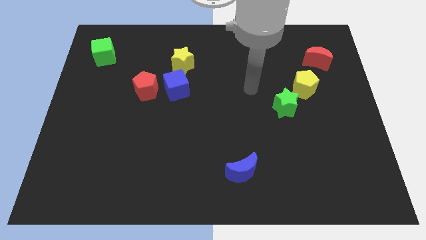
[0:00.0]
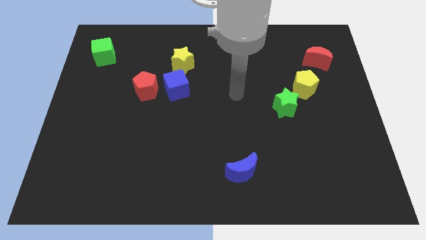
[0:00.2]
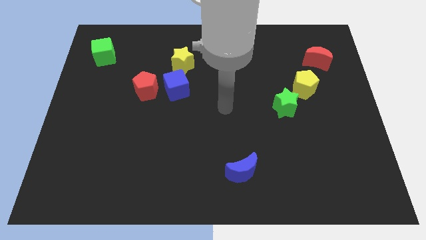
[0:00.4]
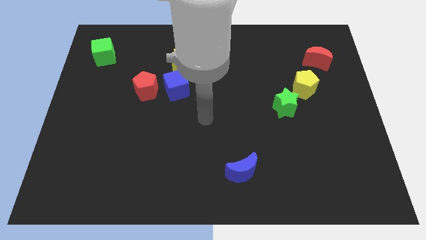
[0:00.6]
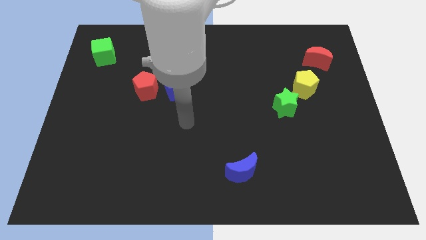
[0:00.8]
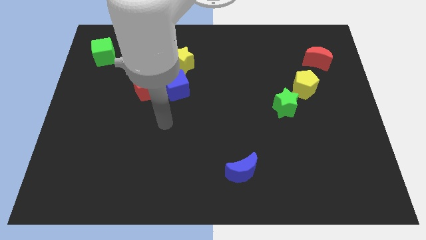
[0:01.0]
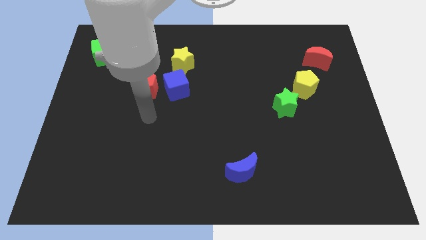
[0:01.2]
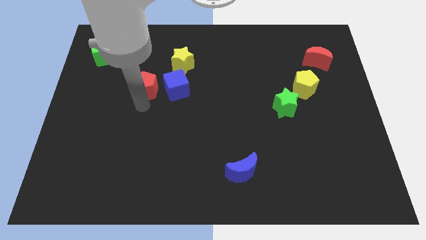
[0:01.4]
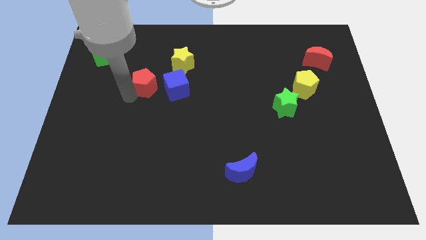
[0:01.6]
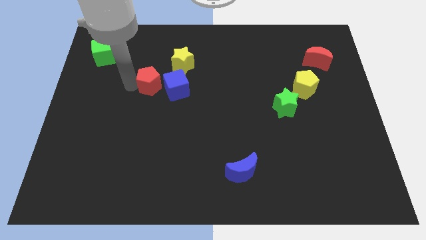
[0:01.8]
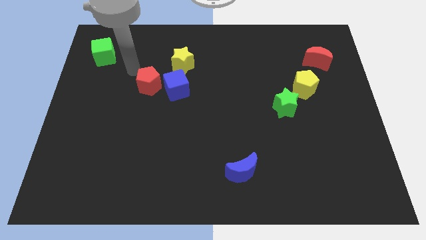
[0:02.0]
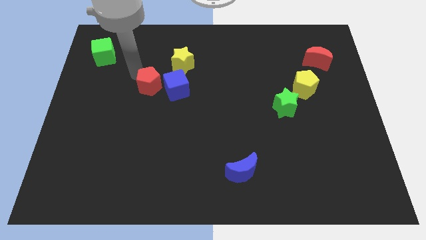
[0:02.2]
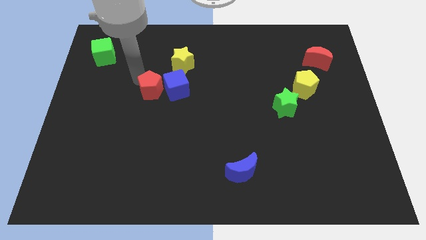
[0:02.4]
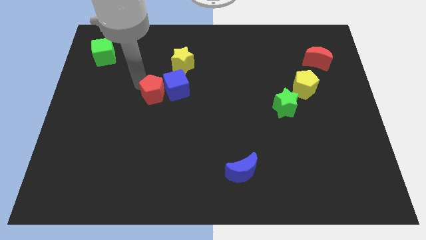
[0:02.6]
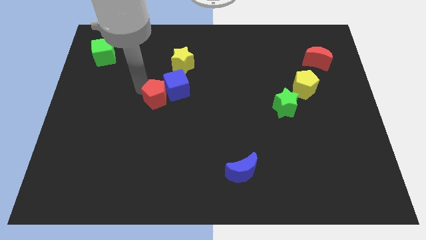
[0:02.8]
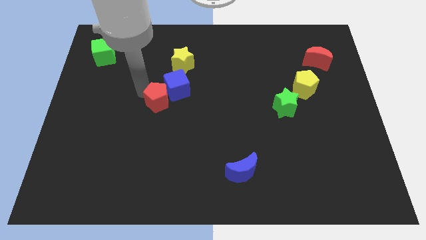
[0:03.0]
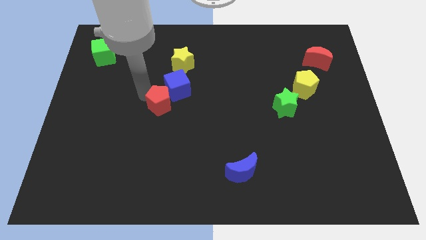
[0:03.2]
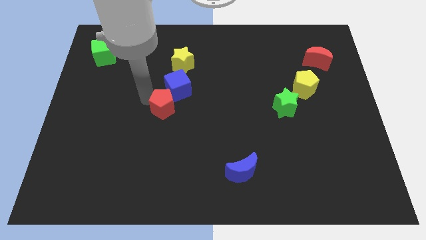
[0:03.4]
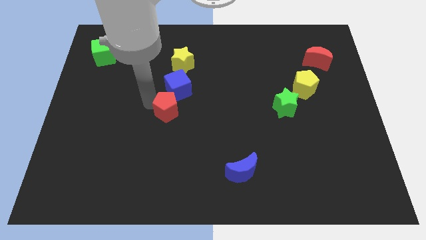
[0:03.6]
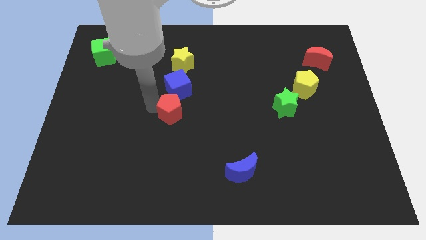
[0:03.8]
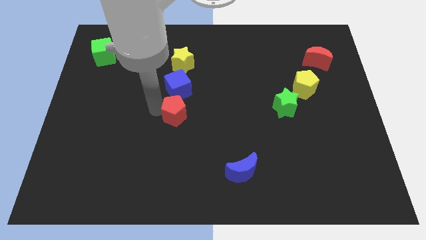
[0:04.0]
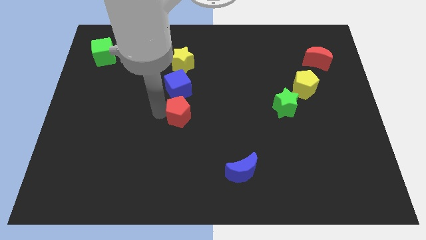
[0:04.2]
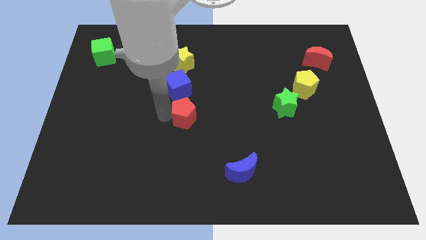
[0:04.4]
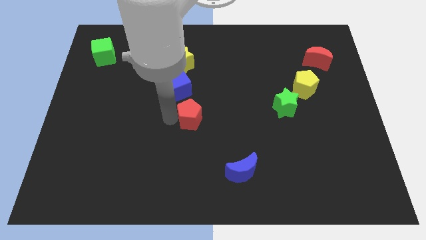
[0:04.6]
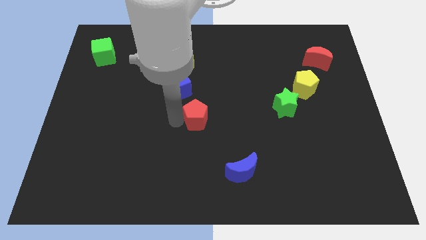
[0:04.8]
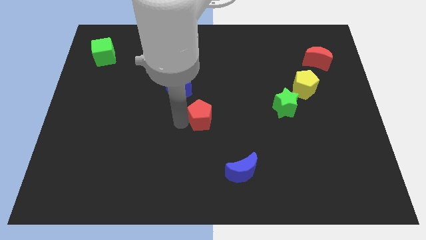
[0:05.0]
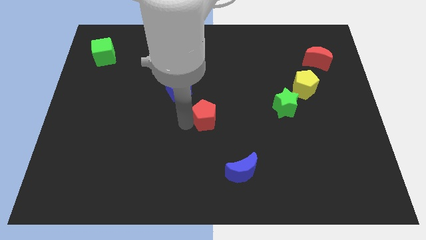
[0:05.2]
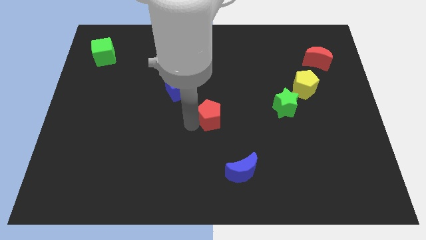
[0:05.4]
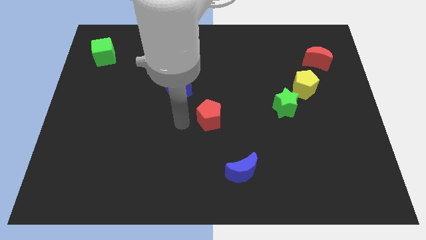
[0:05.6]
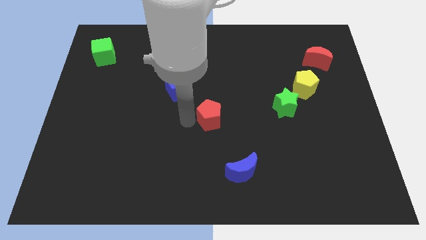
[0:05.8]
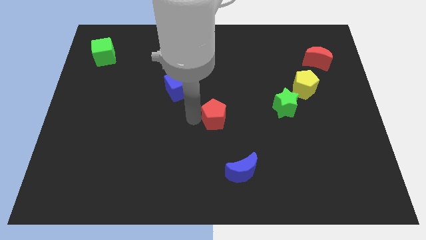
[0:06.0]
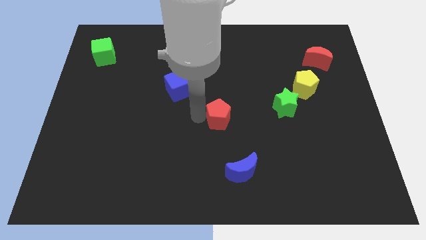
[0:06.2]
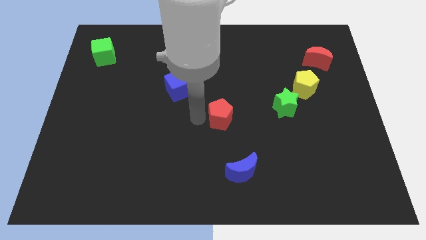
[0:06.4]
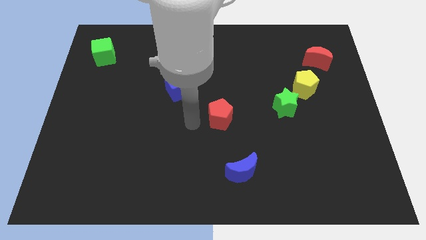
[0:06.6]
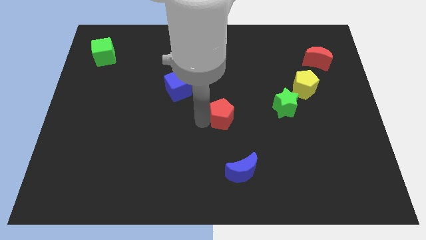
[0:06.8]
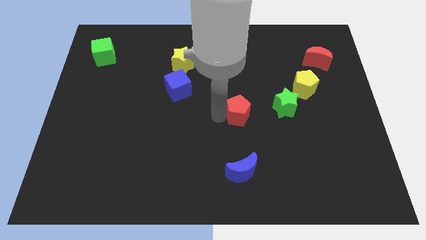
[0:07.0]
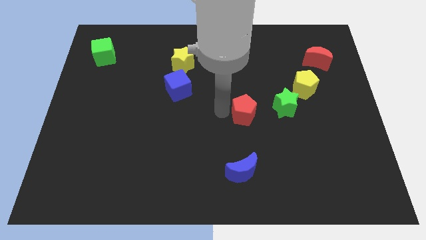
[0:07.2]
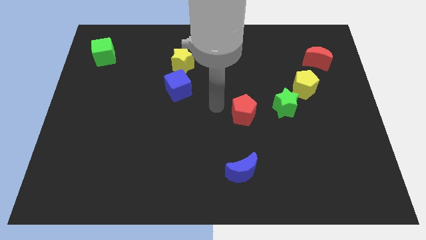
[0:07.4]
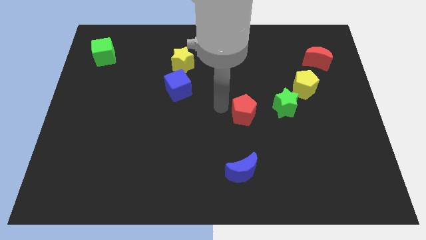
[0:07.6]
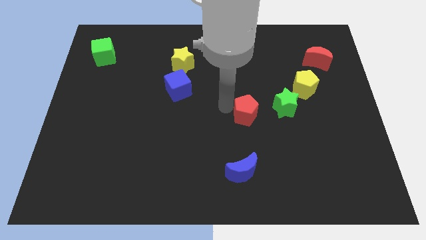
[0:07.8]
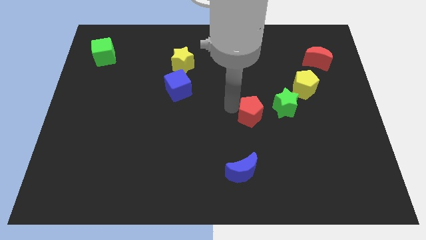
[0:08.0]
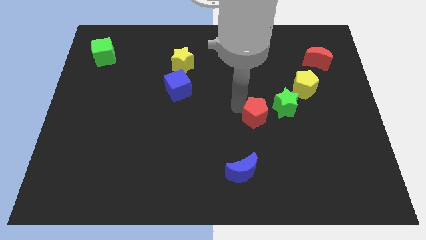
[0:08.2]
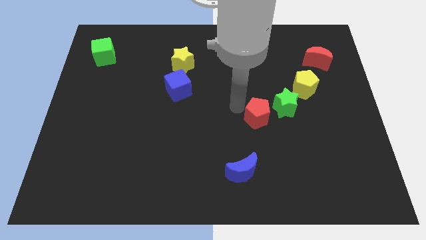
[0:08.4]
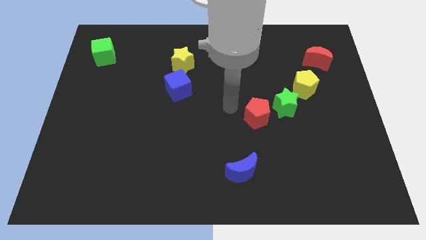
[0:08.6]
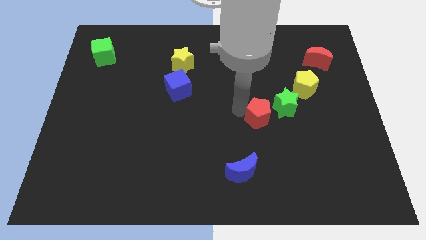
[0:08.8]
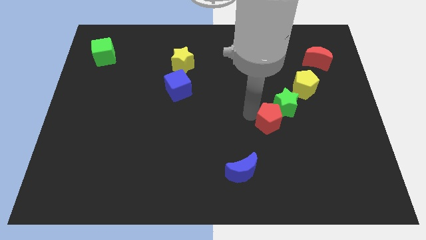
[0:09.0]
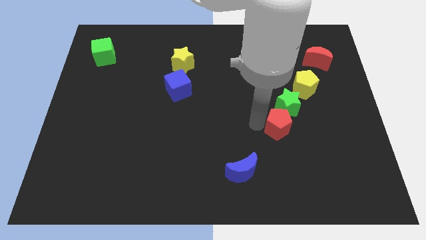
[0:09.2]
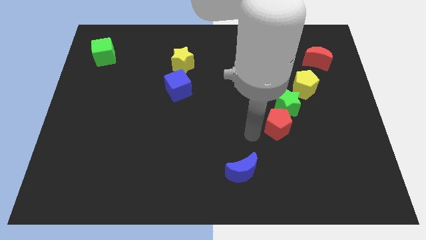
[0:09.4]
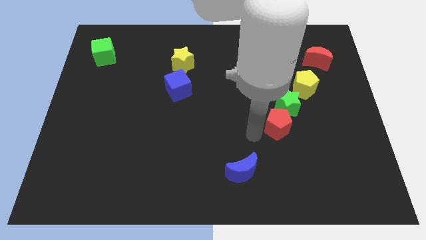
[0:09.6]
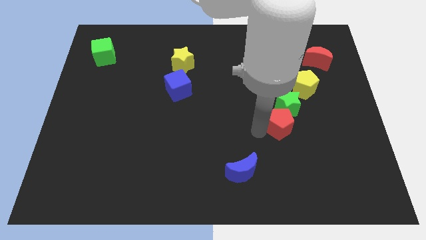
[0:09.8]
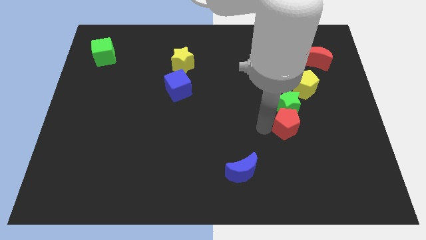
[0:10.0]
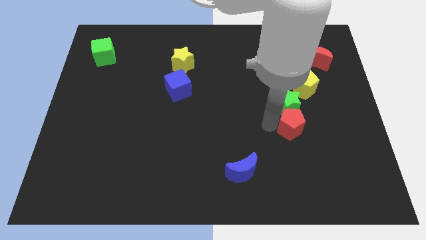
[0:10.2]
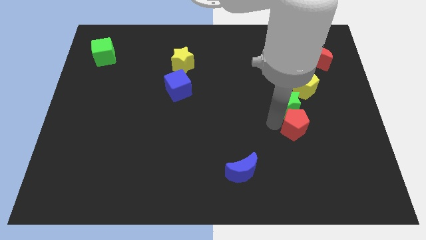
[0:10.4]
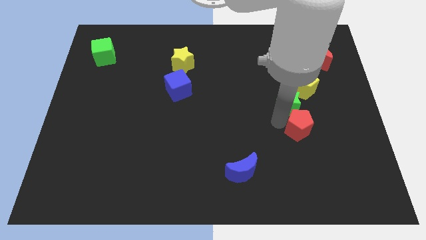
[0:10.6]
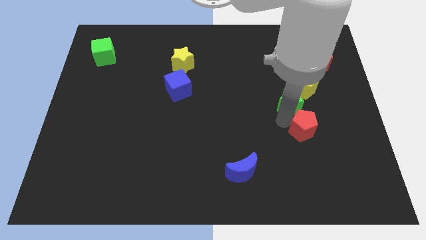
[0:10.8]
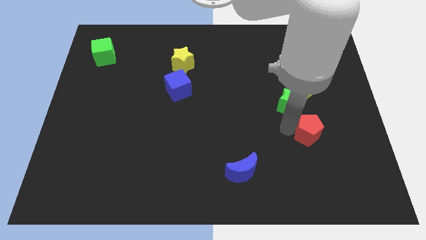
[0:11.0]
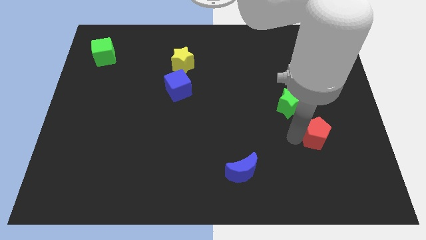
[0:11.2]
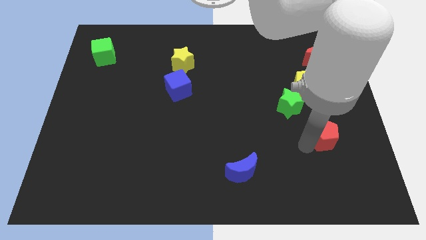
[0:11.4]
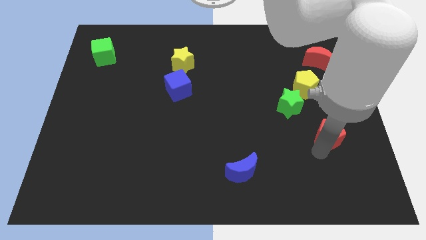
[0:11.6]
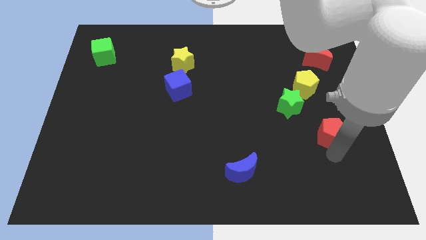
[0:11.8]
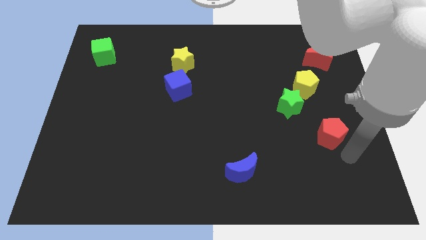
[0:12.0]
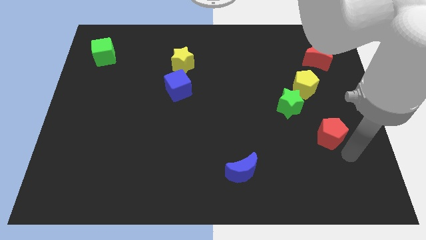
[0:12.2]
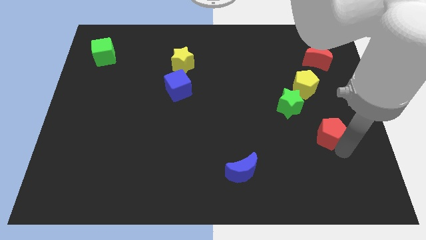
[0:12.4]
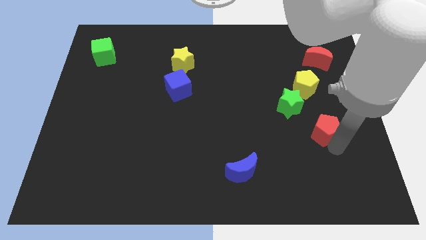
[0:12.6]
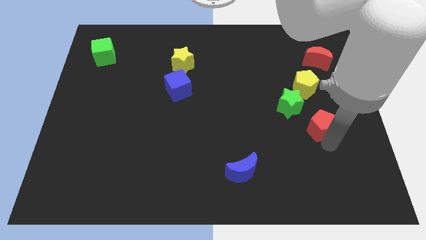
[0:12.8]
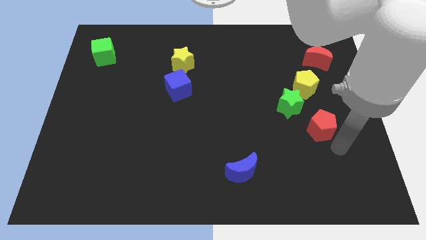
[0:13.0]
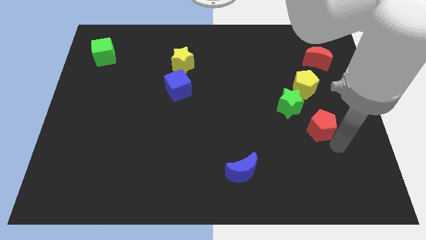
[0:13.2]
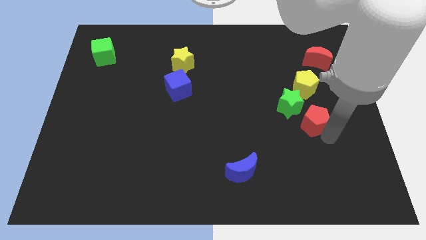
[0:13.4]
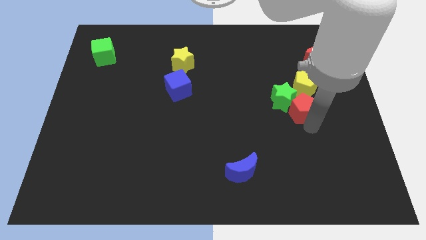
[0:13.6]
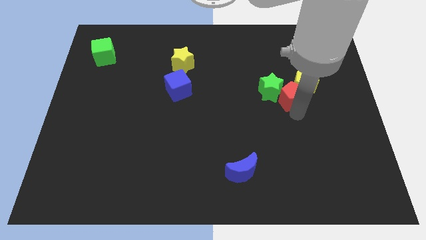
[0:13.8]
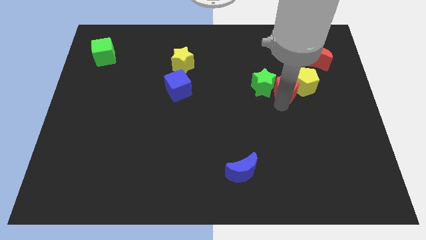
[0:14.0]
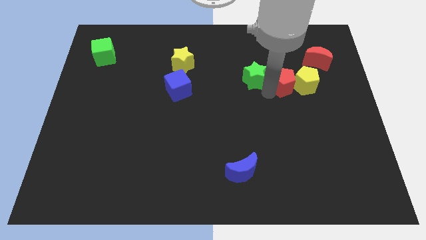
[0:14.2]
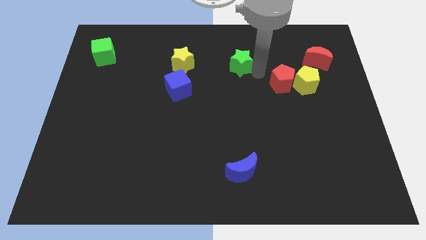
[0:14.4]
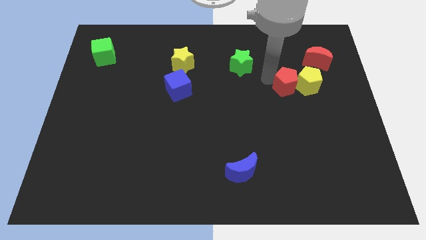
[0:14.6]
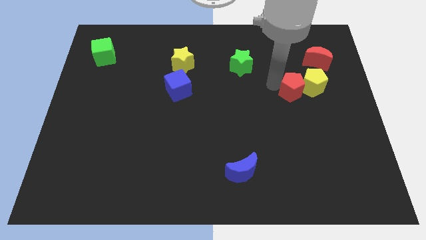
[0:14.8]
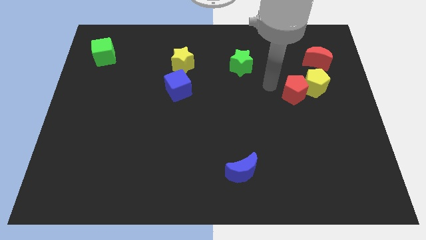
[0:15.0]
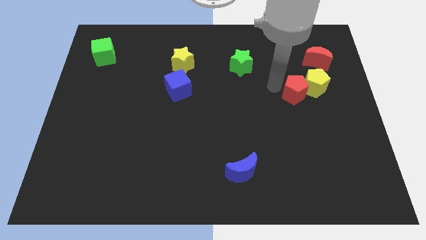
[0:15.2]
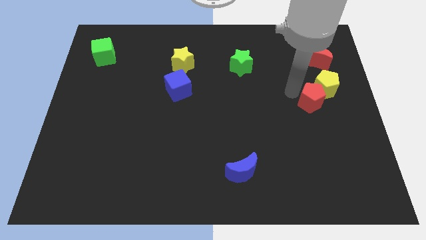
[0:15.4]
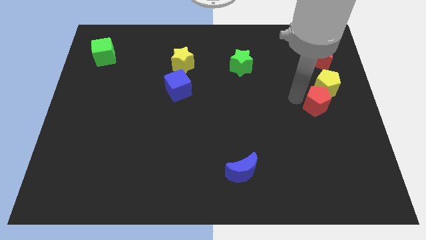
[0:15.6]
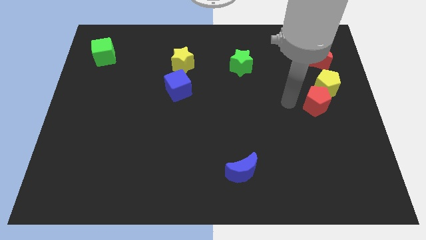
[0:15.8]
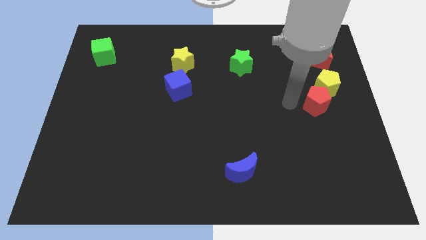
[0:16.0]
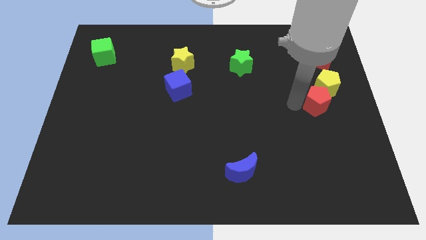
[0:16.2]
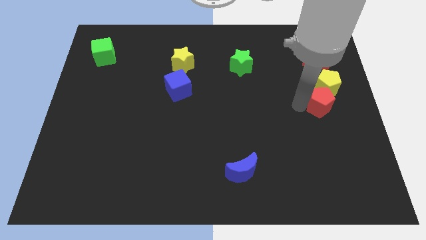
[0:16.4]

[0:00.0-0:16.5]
push the red pentagon to the right side

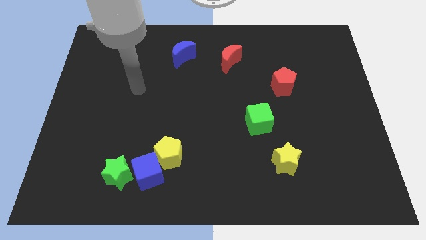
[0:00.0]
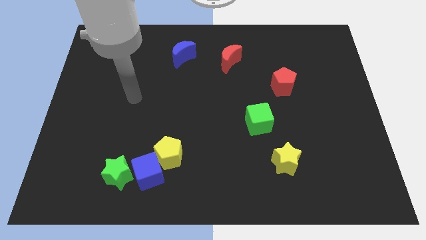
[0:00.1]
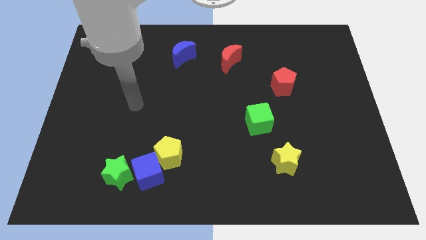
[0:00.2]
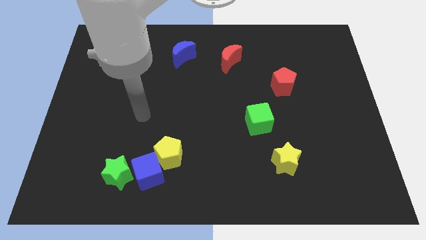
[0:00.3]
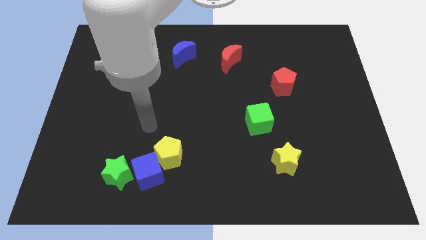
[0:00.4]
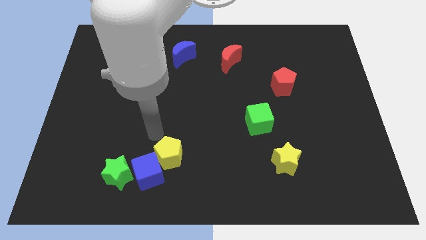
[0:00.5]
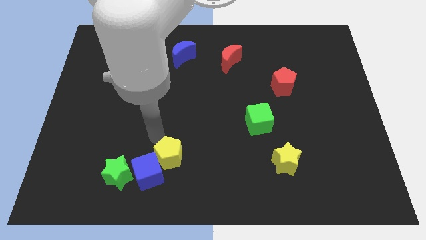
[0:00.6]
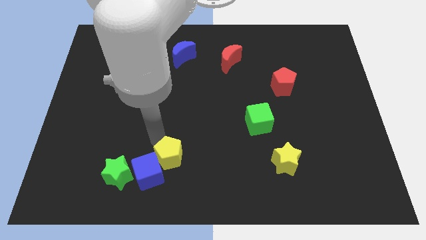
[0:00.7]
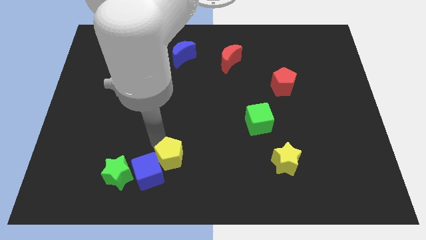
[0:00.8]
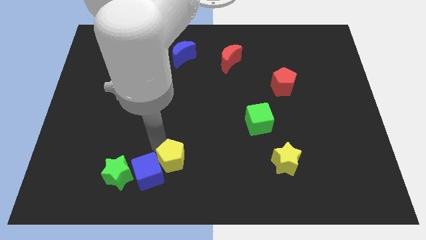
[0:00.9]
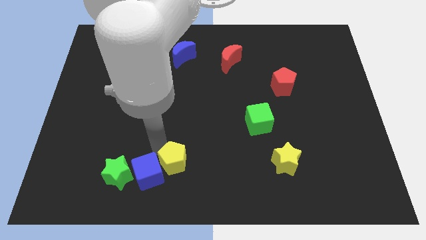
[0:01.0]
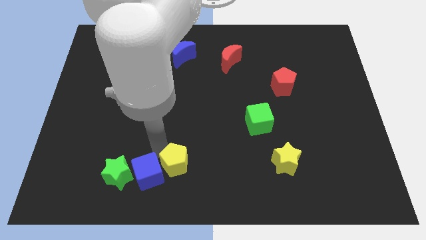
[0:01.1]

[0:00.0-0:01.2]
push the yellow pentagon to the bottom side
